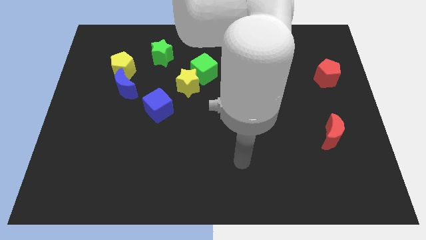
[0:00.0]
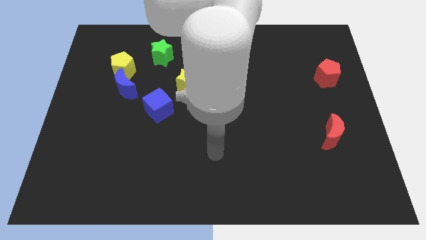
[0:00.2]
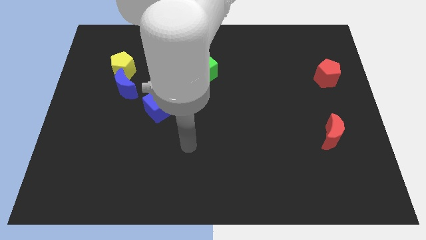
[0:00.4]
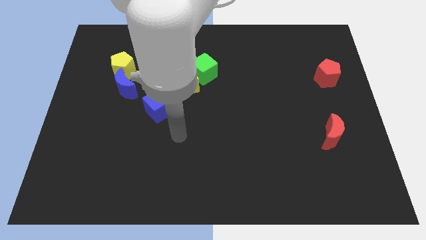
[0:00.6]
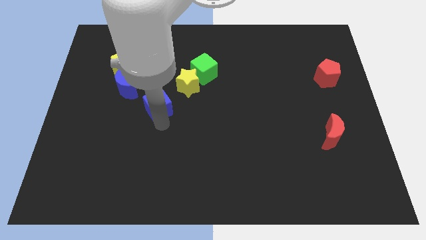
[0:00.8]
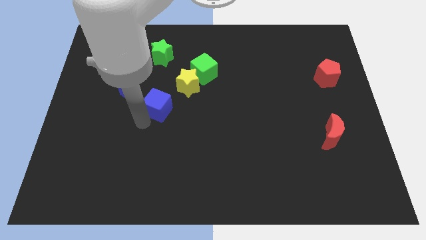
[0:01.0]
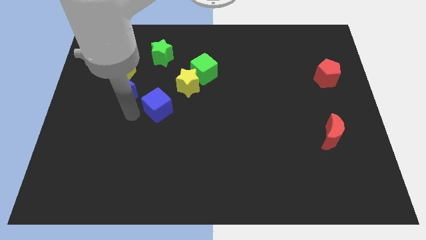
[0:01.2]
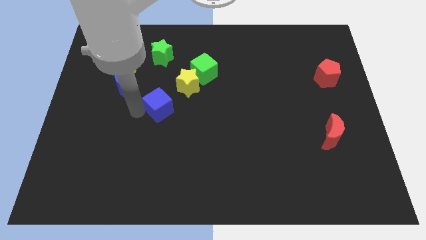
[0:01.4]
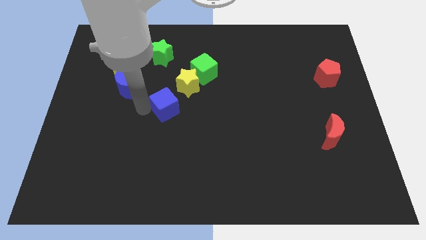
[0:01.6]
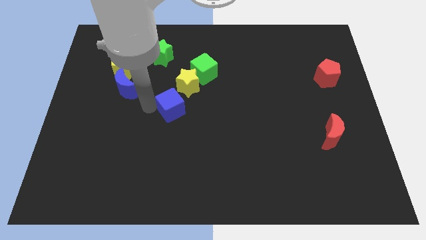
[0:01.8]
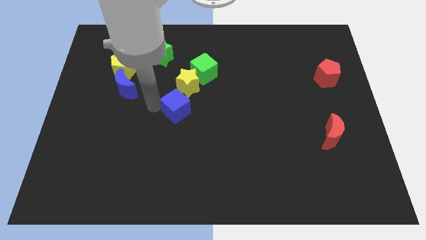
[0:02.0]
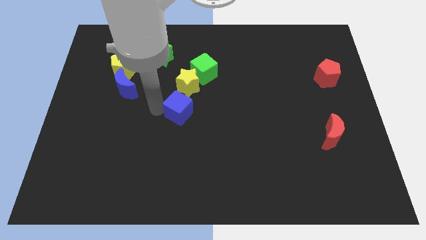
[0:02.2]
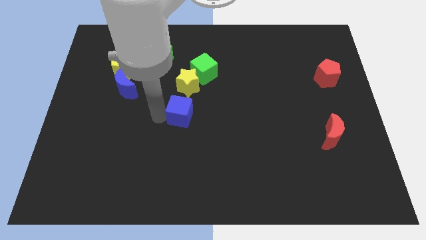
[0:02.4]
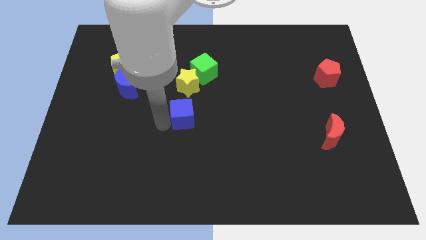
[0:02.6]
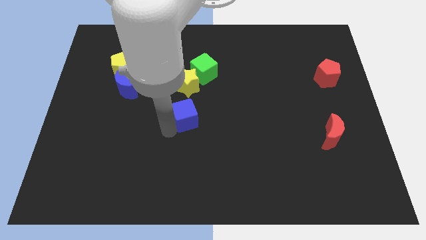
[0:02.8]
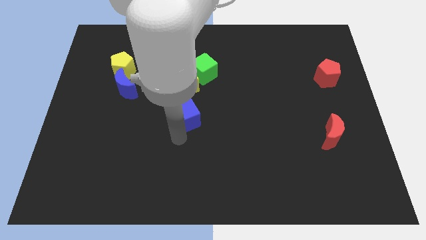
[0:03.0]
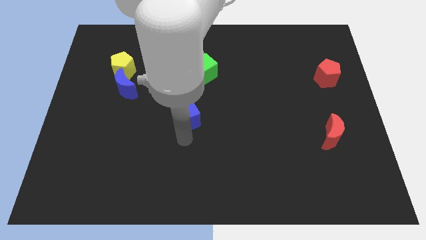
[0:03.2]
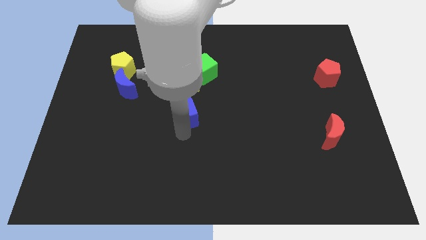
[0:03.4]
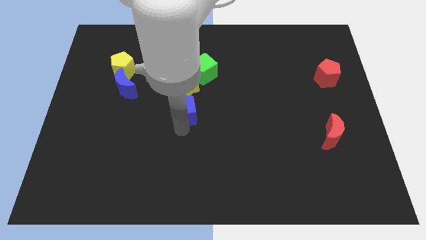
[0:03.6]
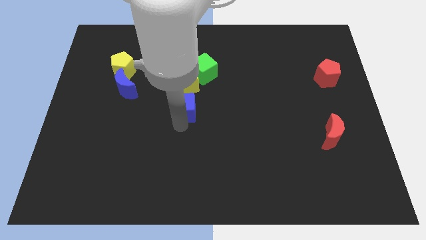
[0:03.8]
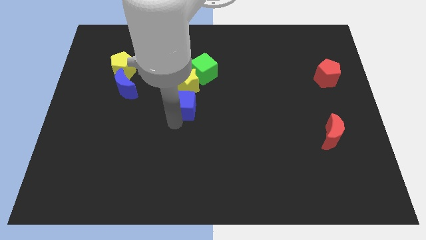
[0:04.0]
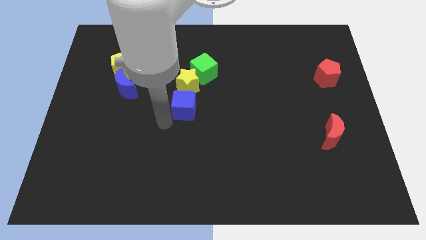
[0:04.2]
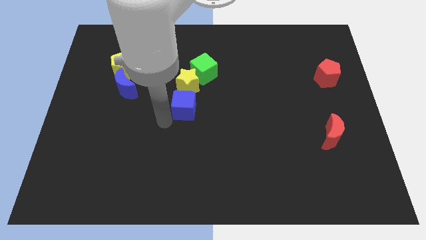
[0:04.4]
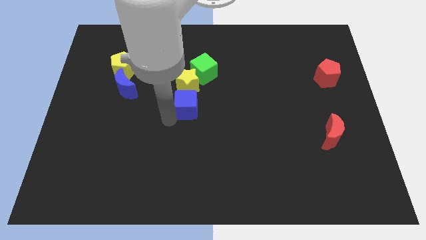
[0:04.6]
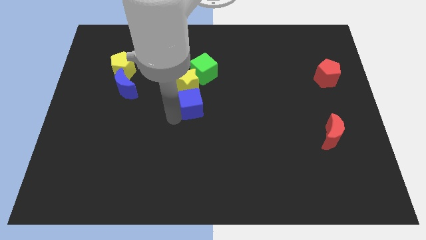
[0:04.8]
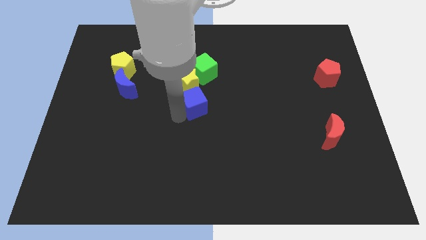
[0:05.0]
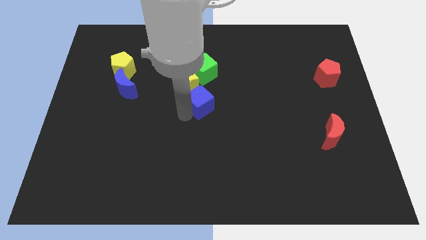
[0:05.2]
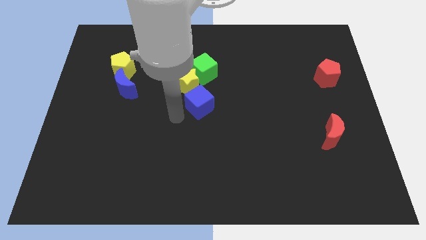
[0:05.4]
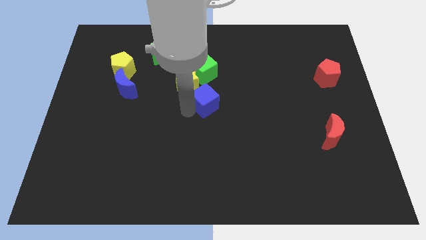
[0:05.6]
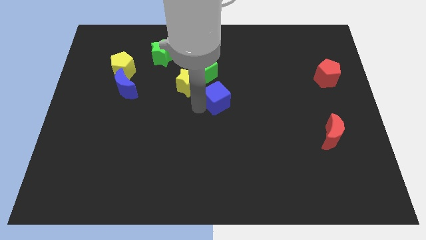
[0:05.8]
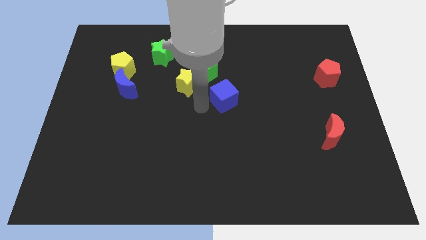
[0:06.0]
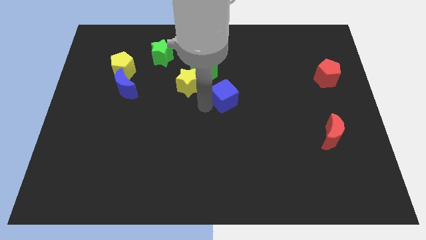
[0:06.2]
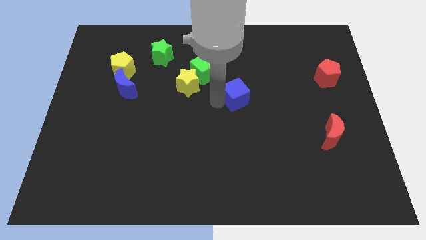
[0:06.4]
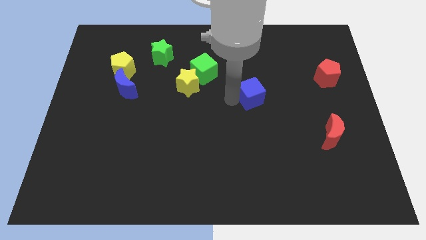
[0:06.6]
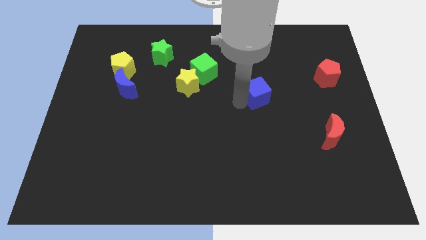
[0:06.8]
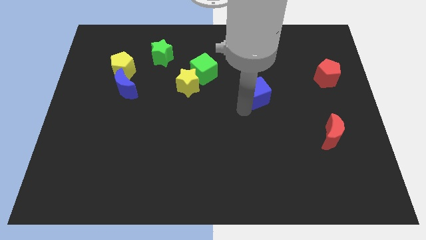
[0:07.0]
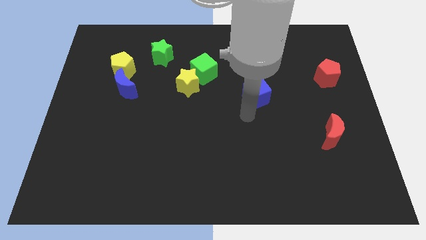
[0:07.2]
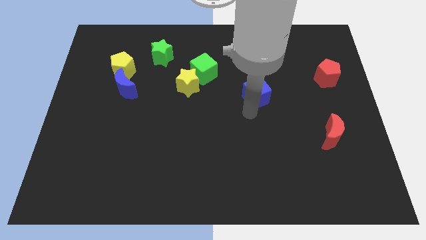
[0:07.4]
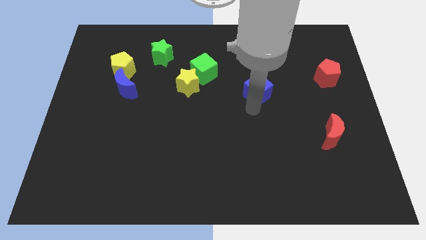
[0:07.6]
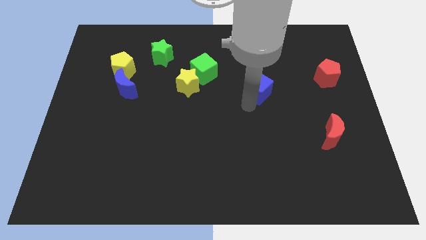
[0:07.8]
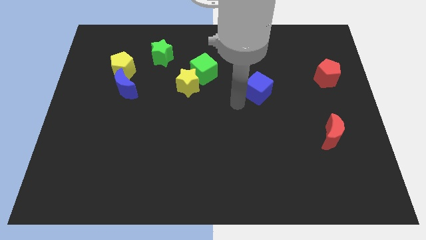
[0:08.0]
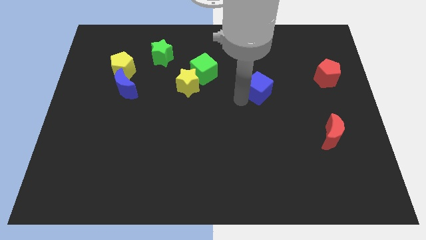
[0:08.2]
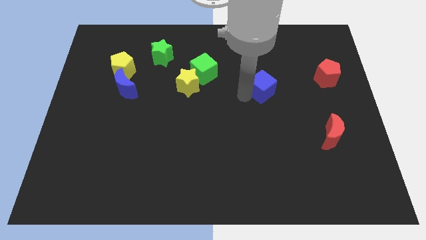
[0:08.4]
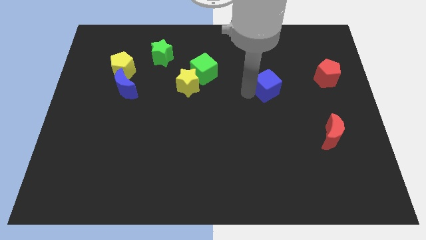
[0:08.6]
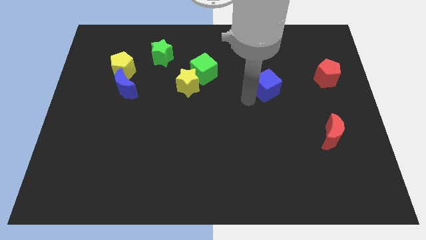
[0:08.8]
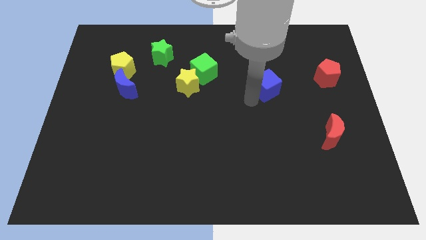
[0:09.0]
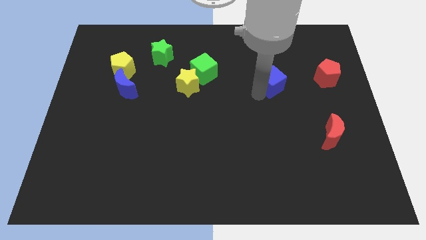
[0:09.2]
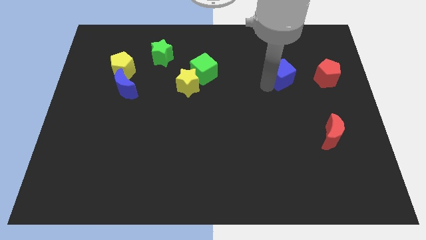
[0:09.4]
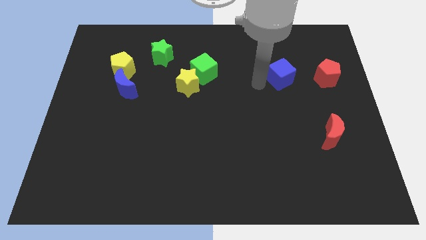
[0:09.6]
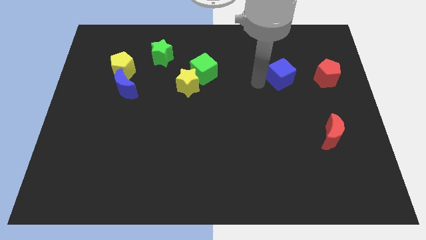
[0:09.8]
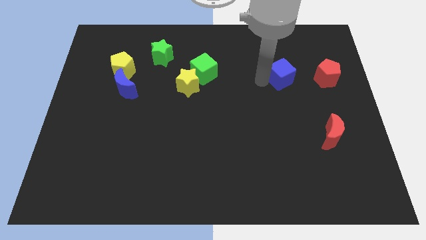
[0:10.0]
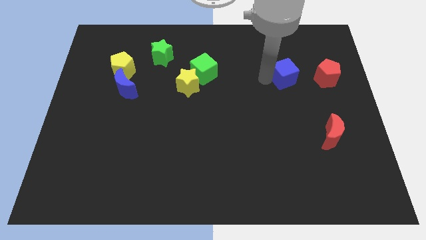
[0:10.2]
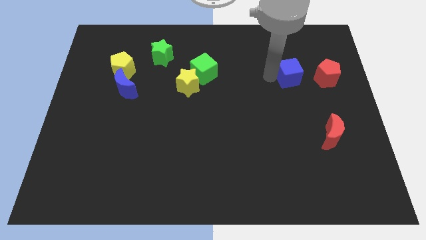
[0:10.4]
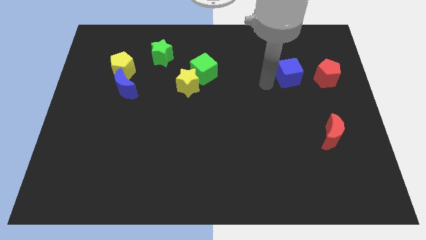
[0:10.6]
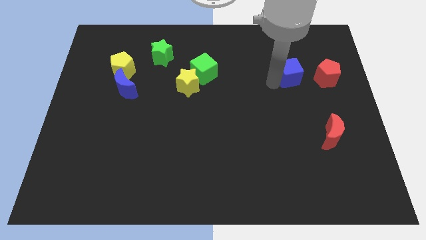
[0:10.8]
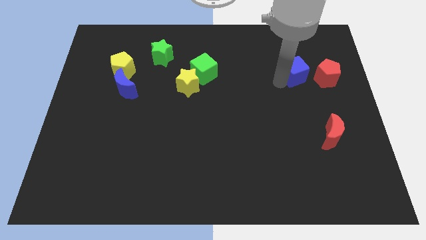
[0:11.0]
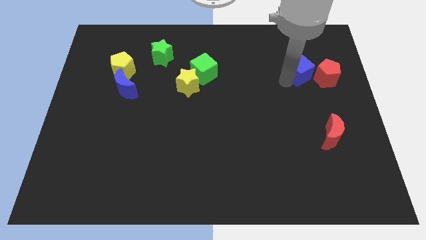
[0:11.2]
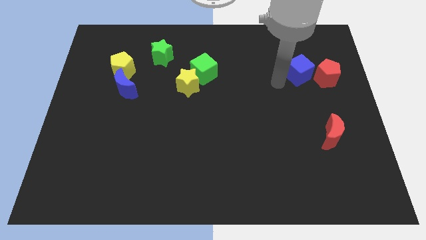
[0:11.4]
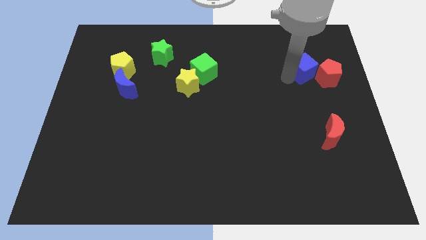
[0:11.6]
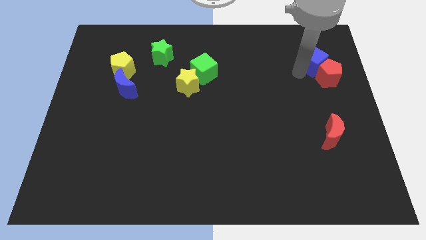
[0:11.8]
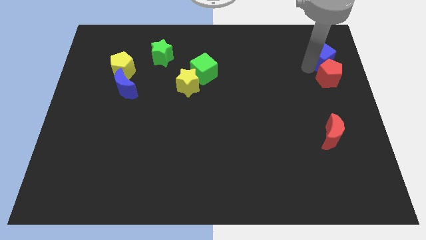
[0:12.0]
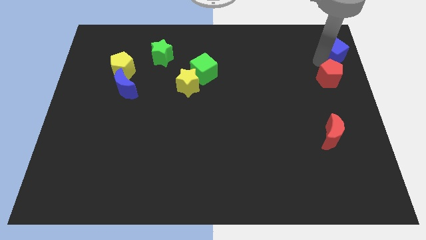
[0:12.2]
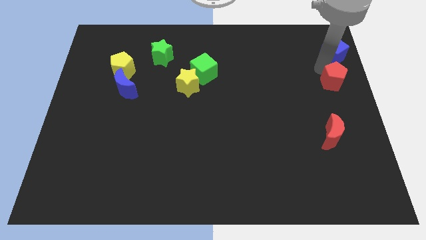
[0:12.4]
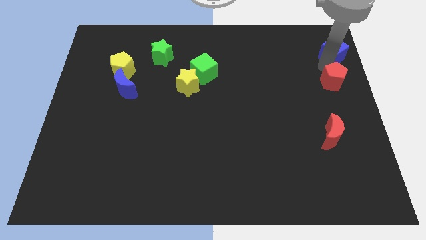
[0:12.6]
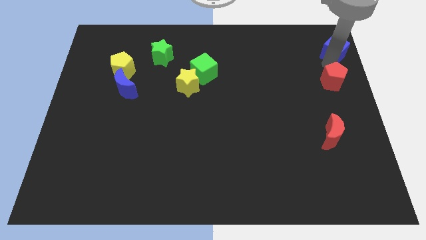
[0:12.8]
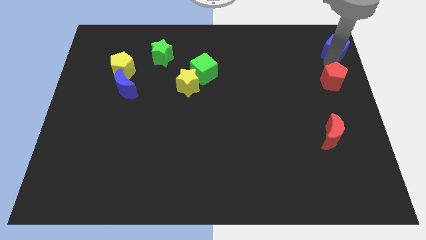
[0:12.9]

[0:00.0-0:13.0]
slide the blue cube to the top right
